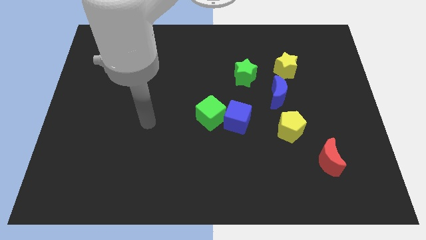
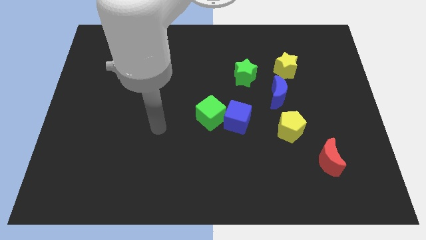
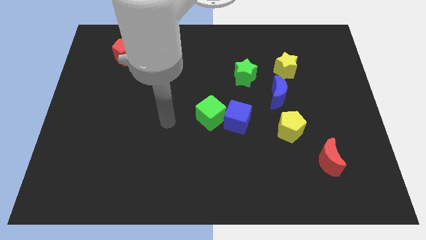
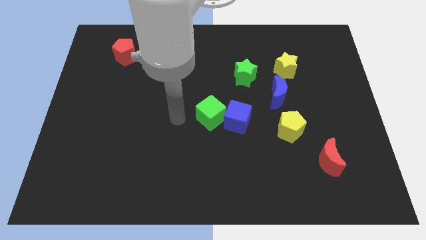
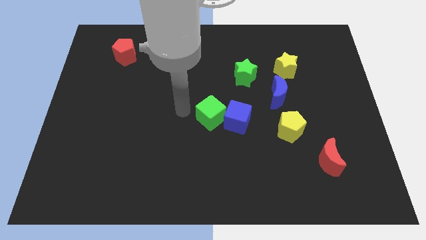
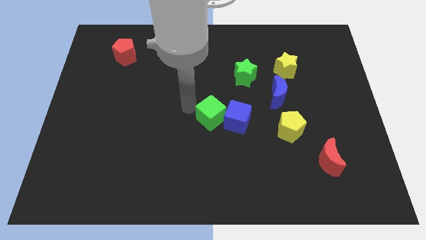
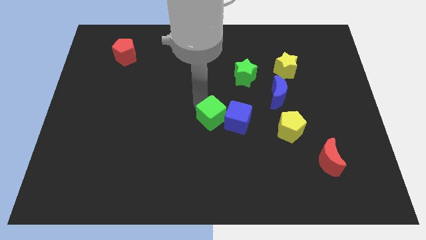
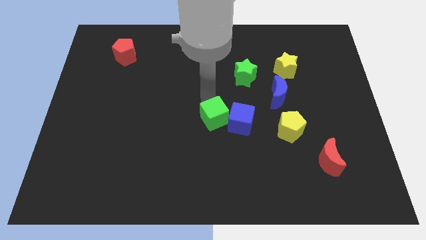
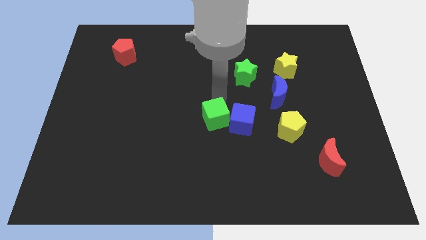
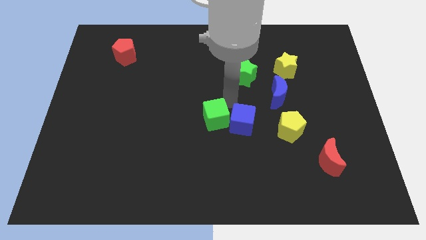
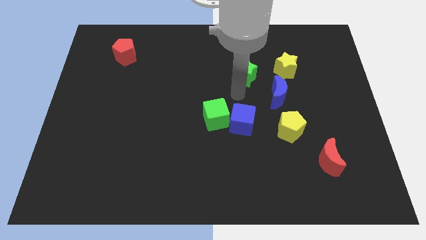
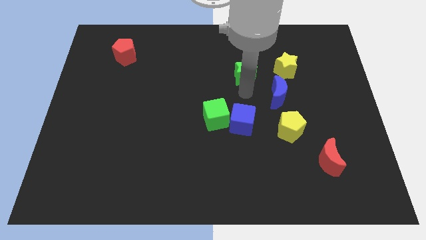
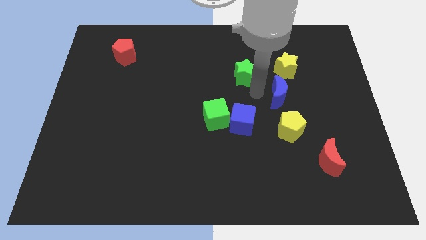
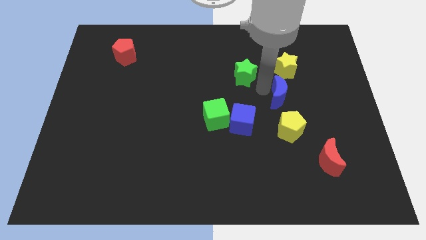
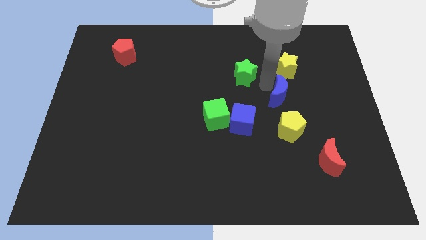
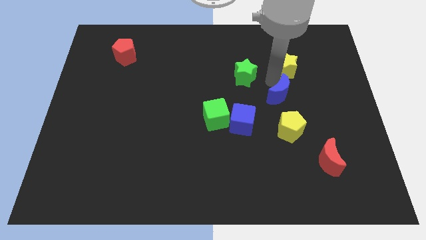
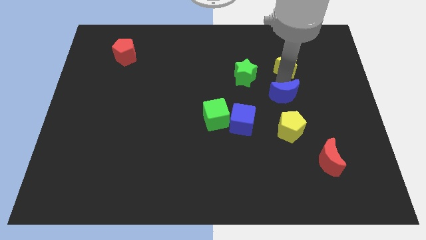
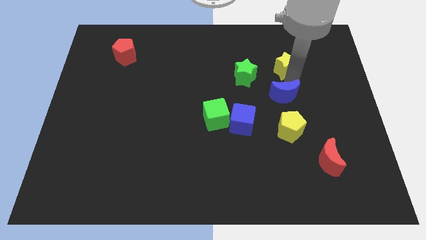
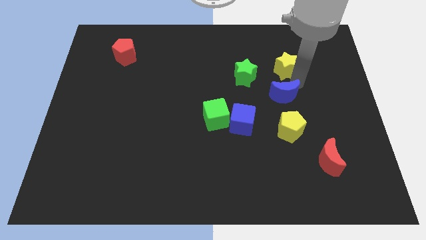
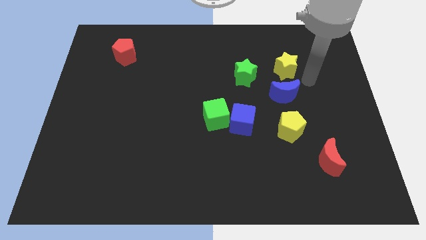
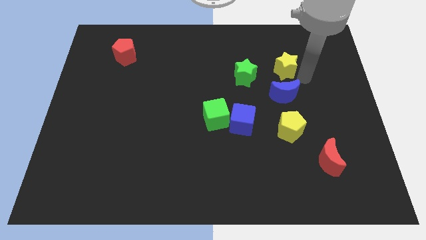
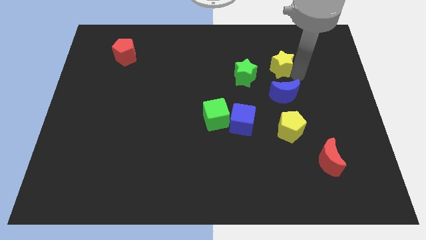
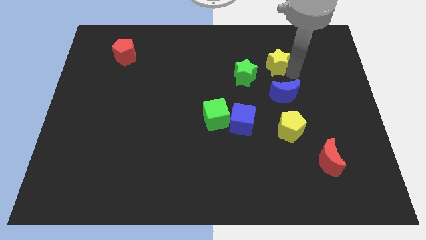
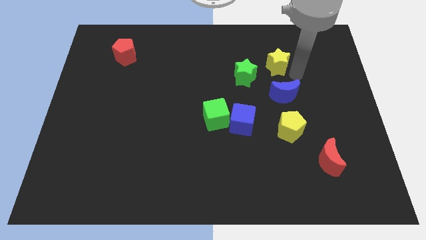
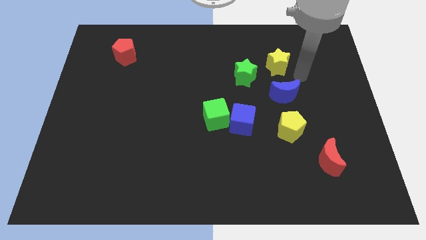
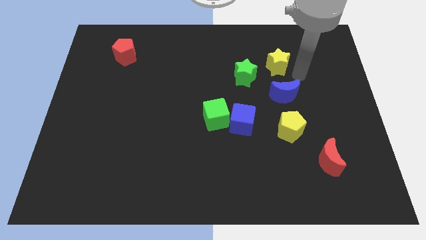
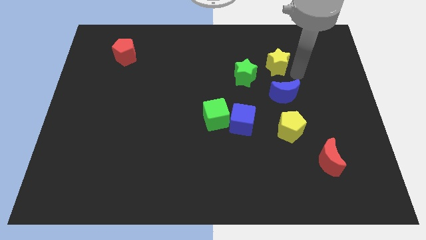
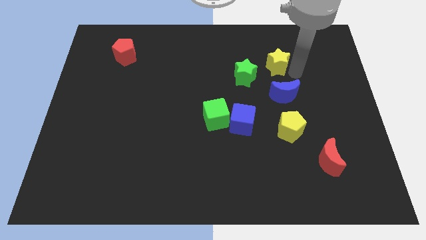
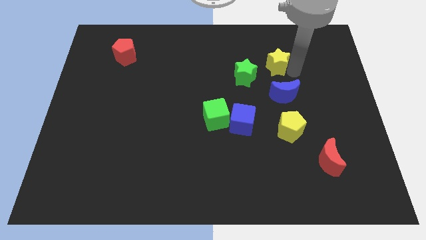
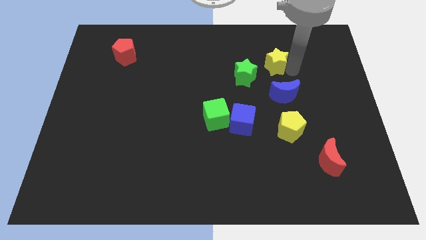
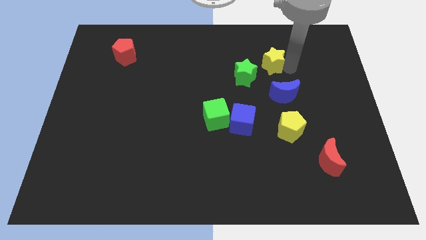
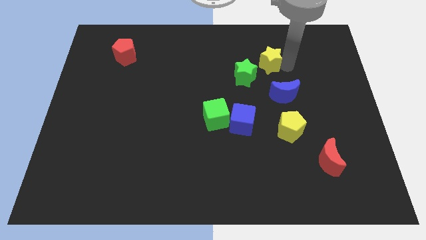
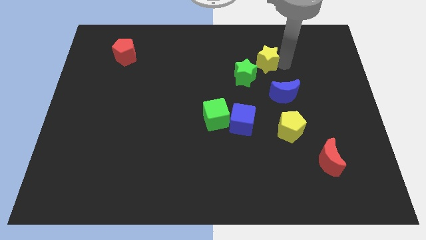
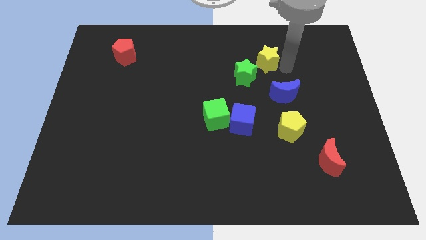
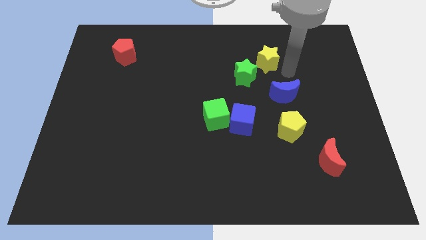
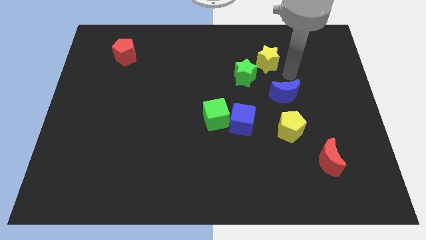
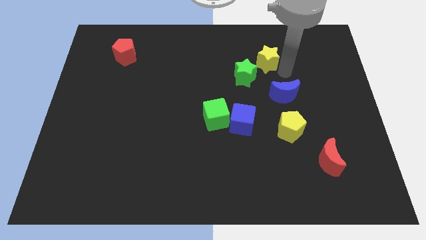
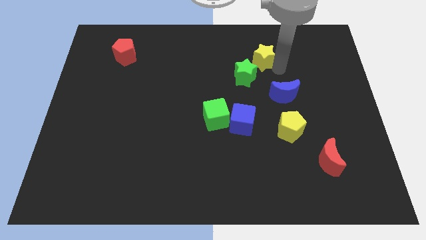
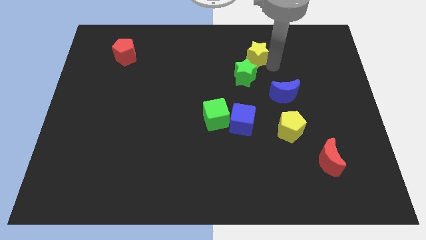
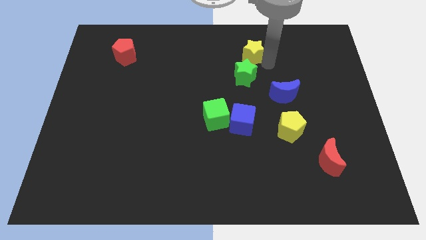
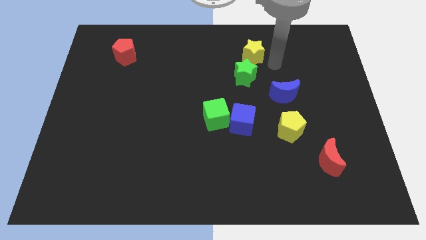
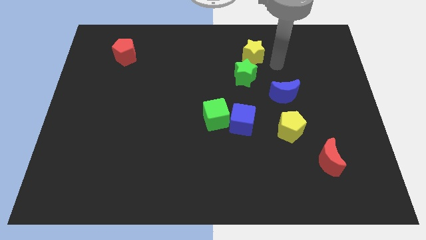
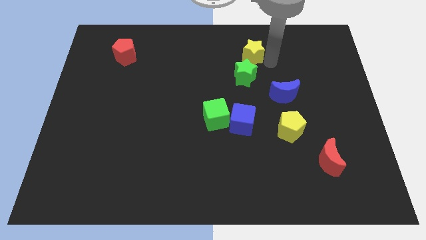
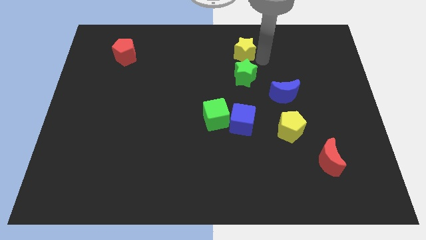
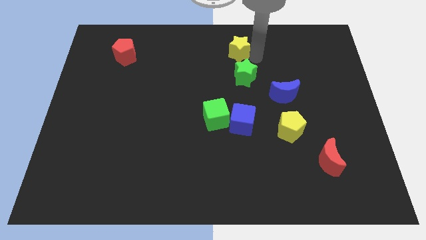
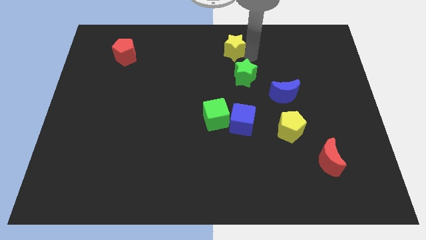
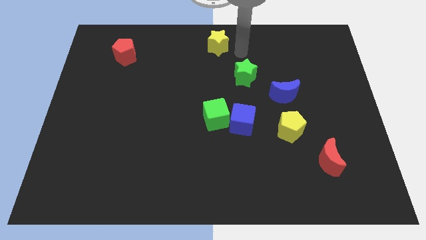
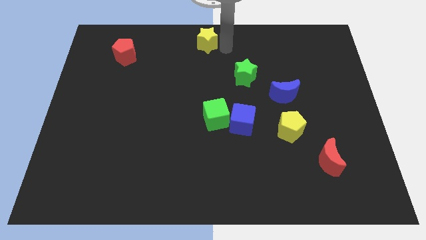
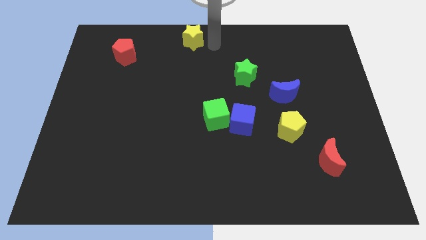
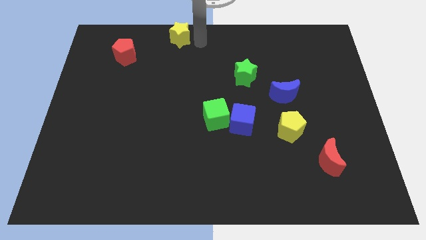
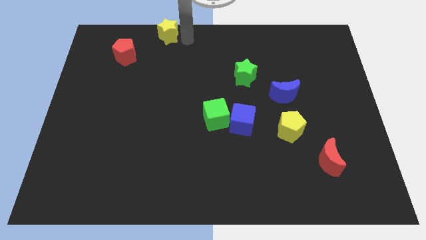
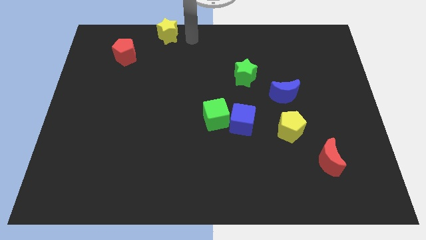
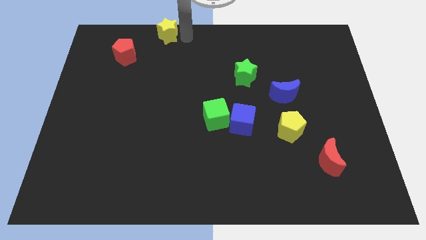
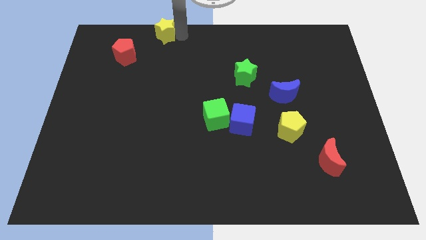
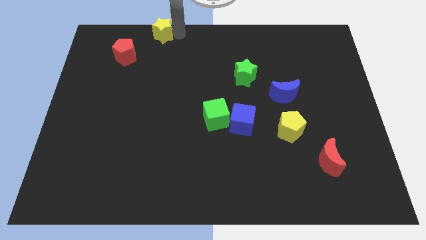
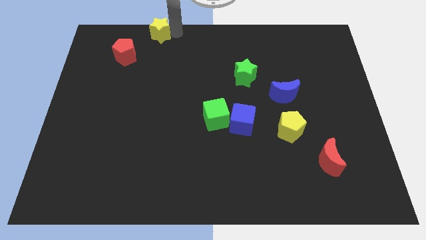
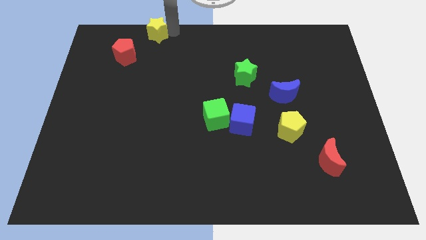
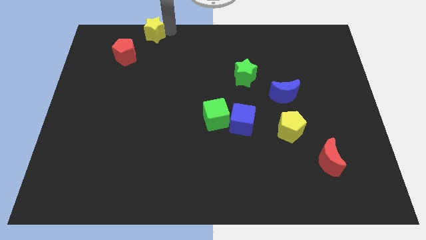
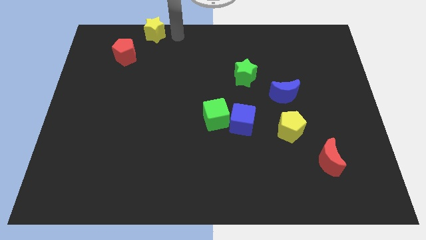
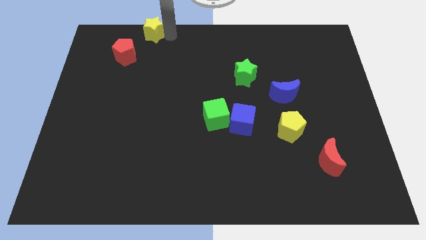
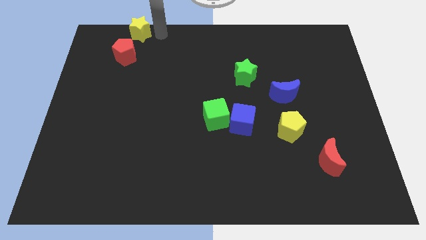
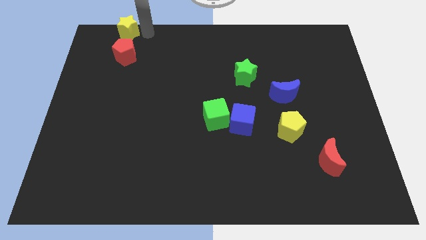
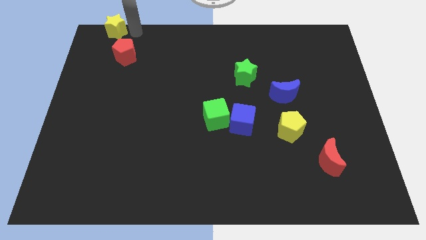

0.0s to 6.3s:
move the yellow star to the top left corner

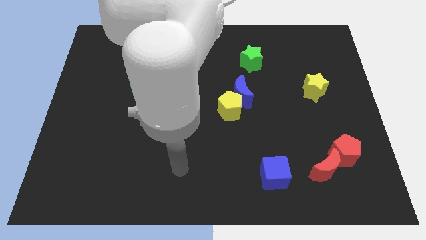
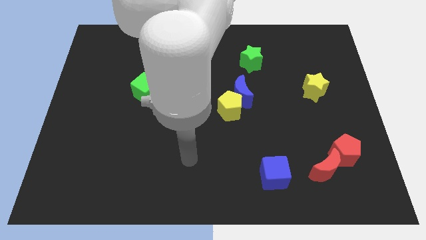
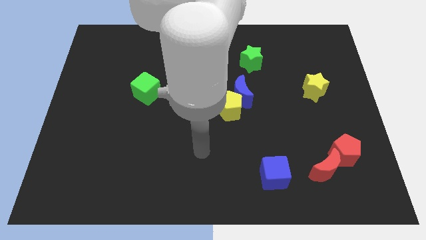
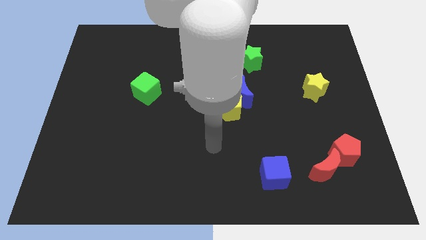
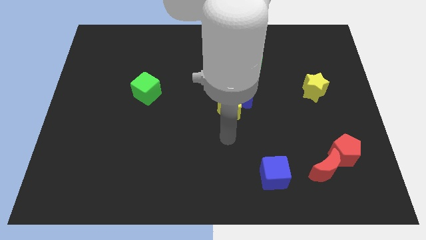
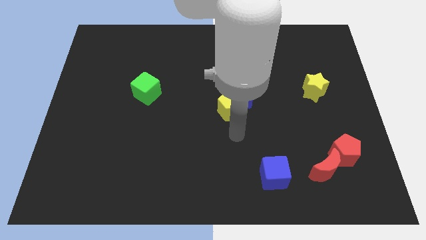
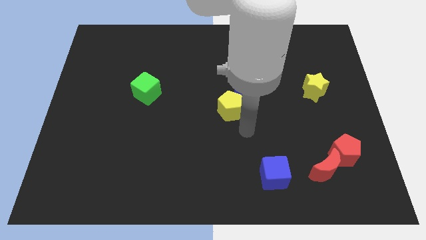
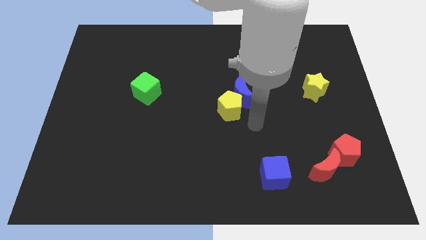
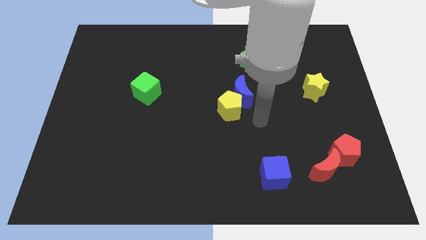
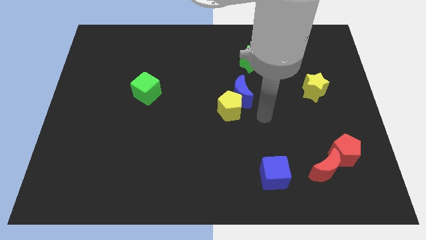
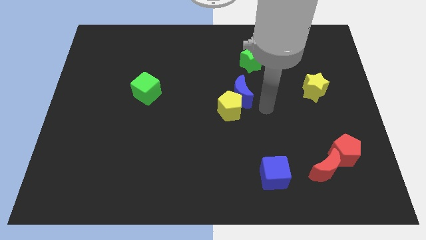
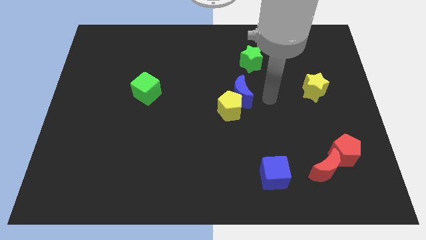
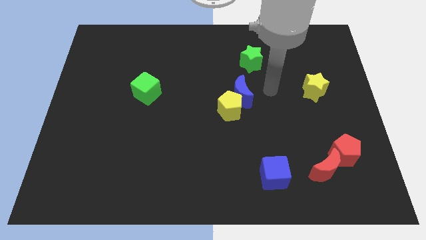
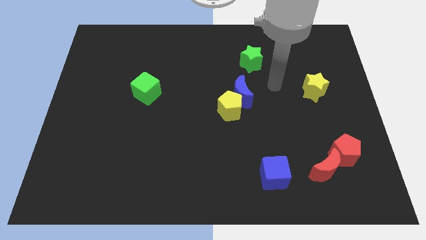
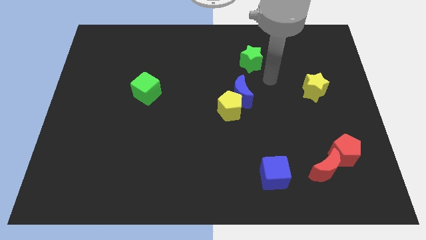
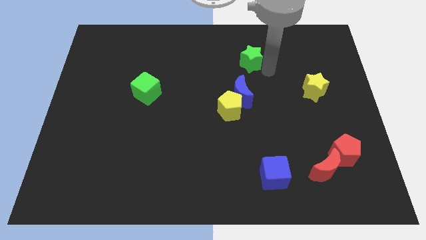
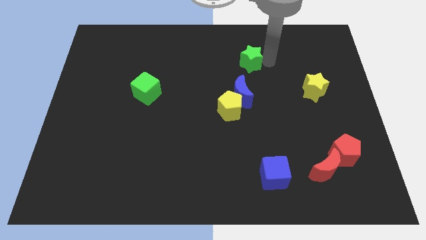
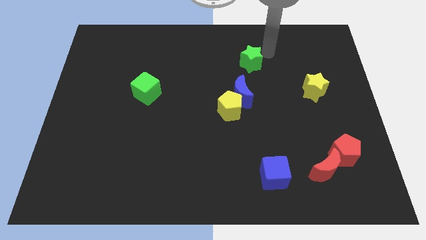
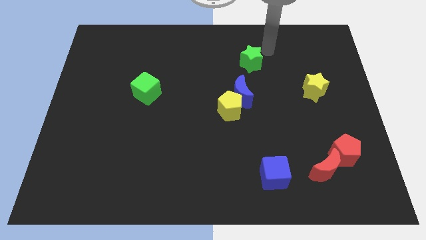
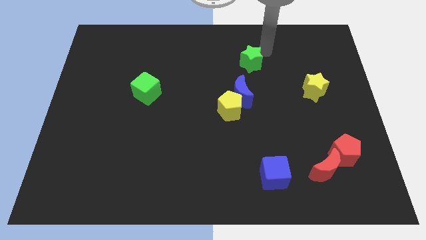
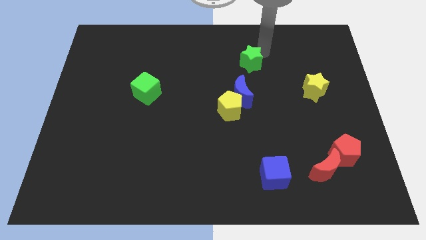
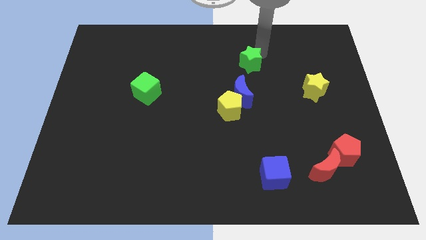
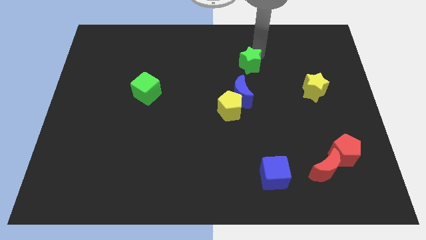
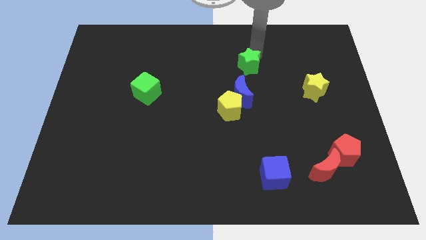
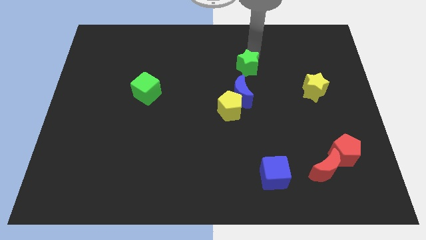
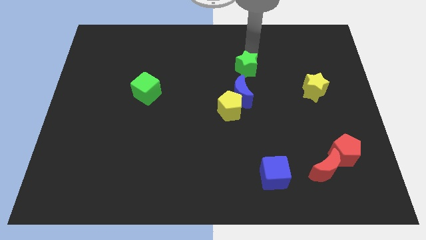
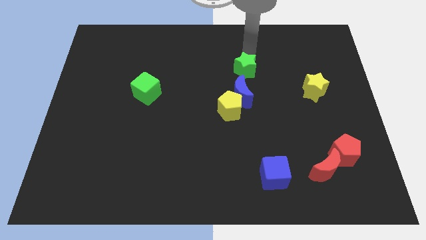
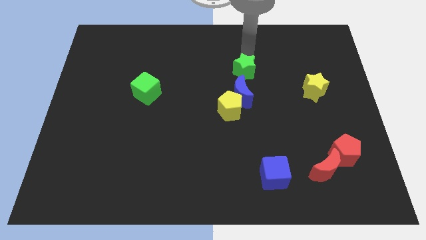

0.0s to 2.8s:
put the green star to the center
